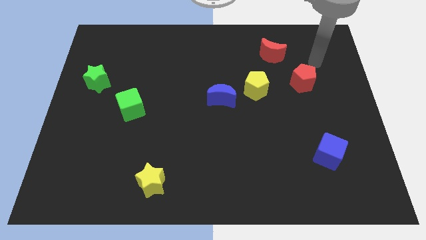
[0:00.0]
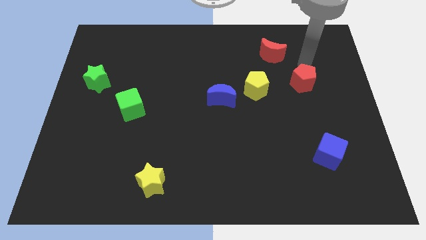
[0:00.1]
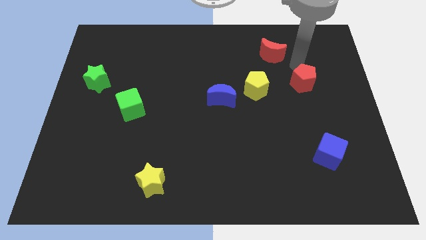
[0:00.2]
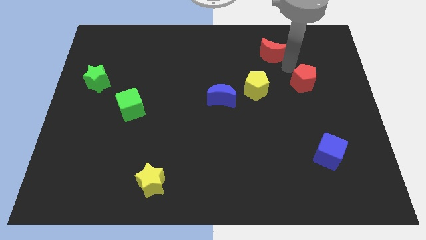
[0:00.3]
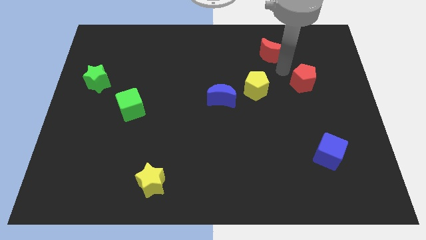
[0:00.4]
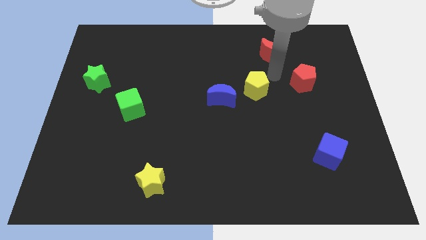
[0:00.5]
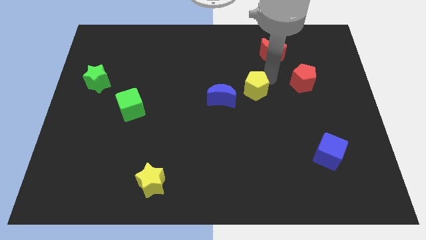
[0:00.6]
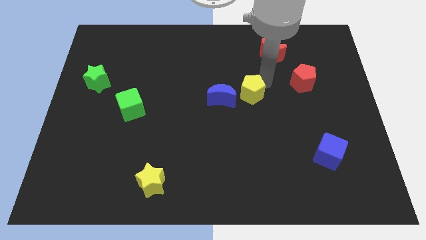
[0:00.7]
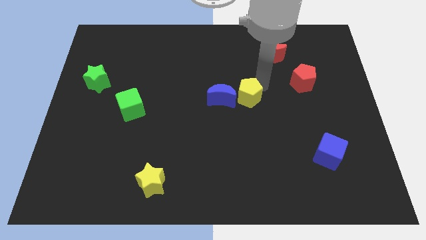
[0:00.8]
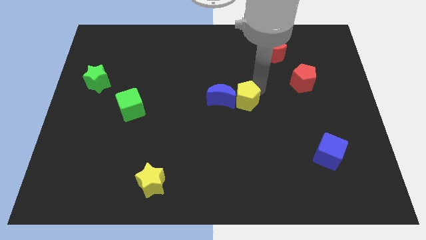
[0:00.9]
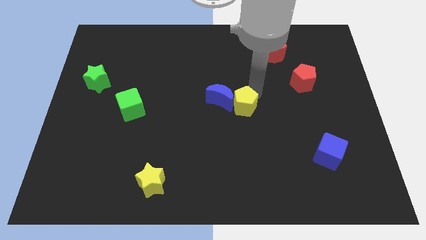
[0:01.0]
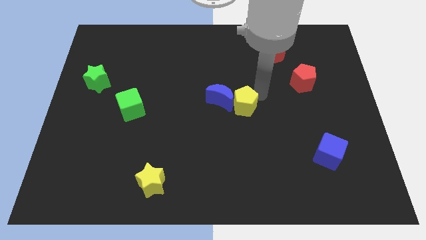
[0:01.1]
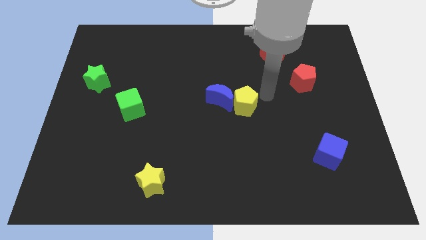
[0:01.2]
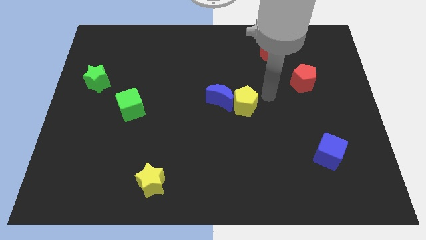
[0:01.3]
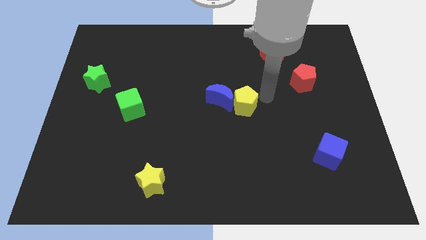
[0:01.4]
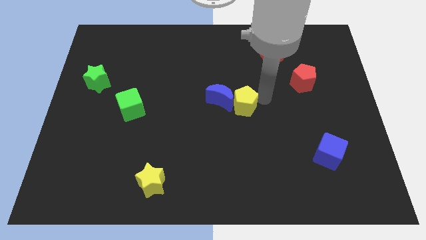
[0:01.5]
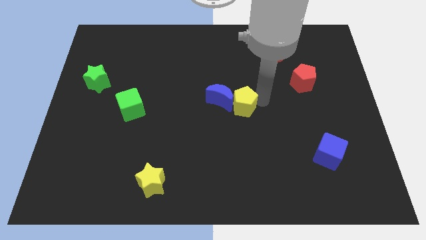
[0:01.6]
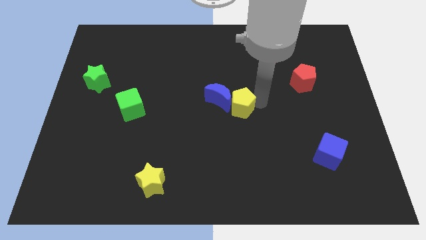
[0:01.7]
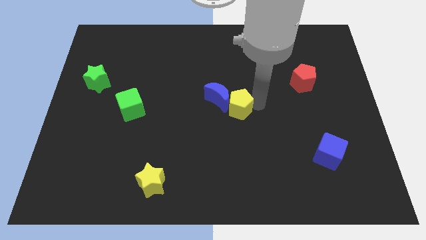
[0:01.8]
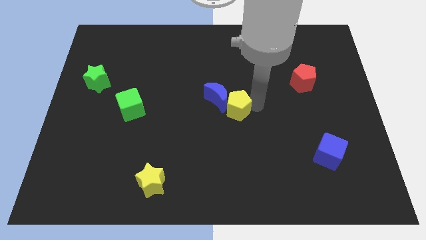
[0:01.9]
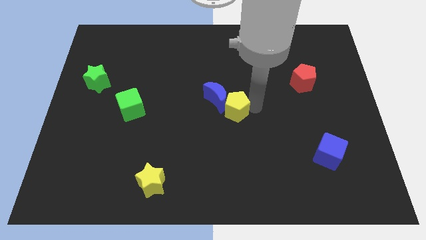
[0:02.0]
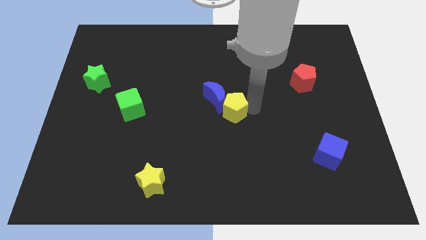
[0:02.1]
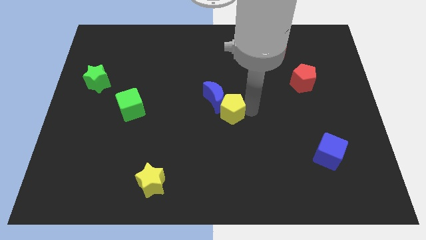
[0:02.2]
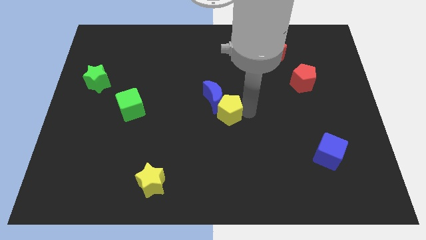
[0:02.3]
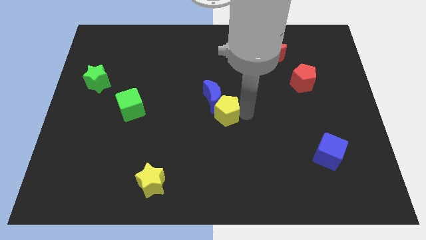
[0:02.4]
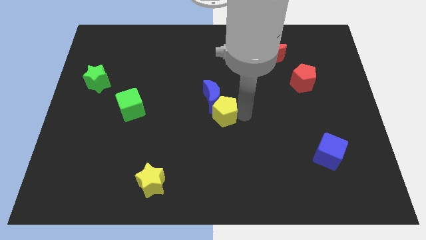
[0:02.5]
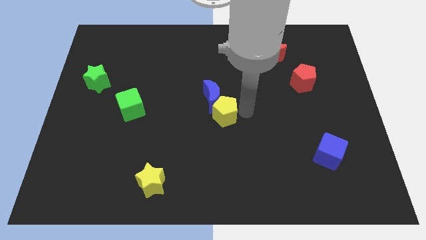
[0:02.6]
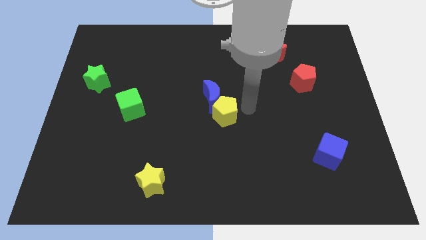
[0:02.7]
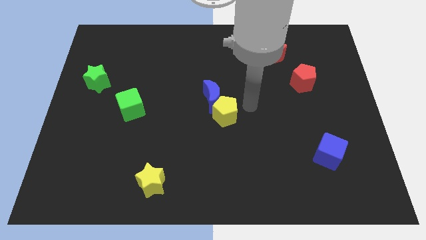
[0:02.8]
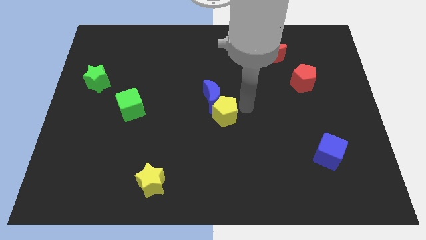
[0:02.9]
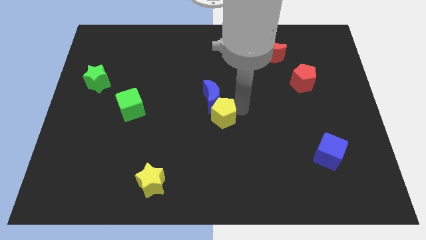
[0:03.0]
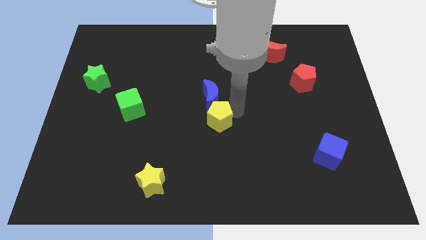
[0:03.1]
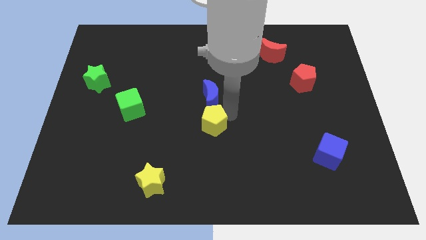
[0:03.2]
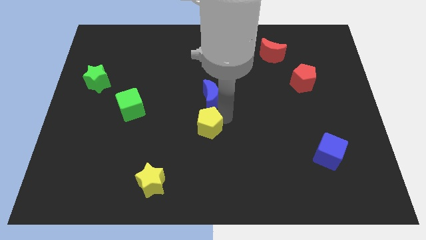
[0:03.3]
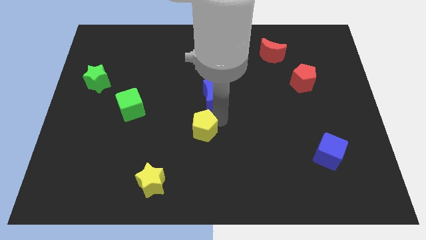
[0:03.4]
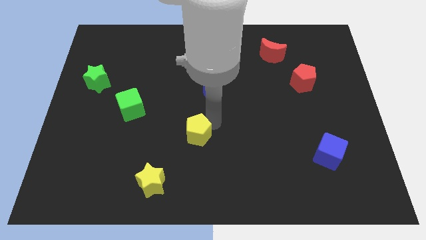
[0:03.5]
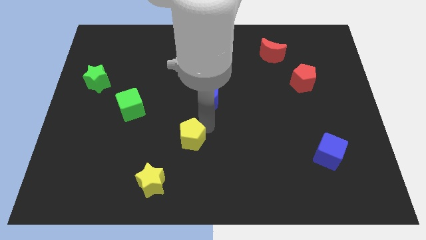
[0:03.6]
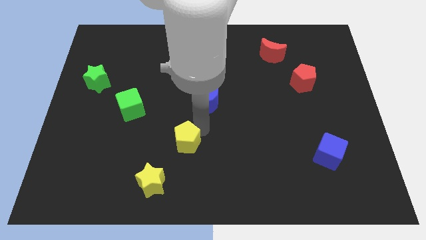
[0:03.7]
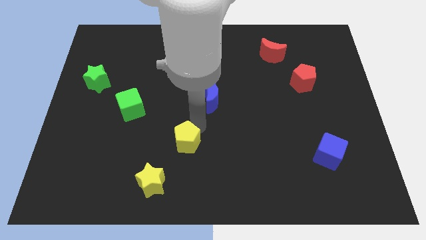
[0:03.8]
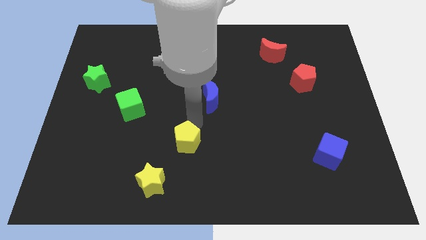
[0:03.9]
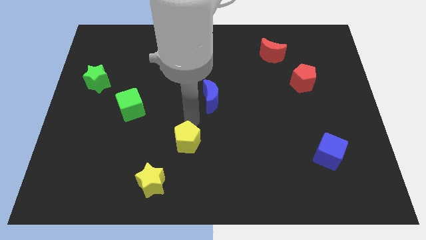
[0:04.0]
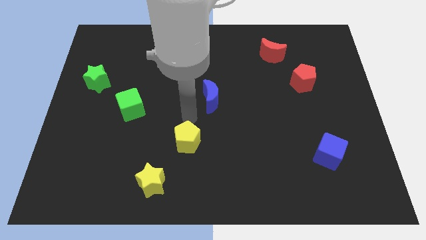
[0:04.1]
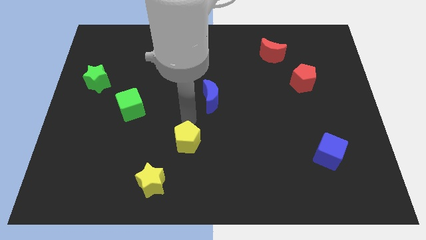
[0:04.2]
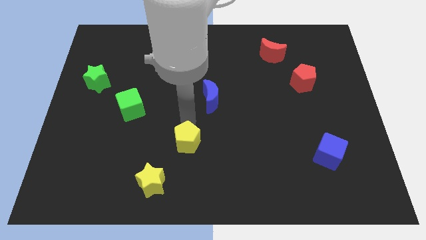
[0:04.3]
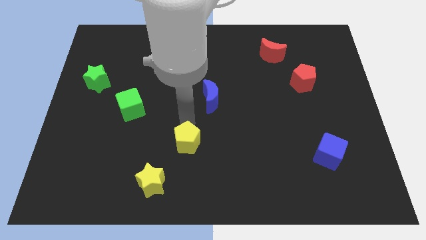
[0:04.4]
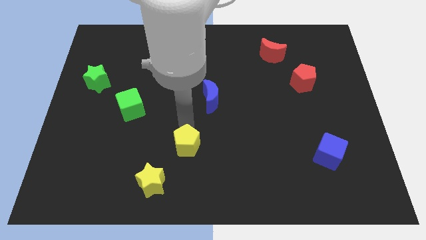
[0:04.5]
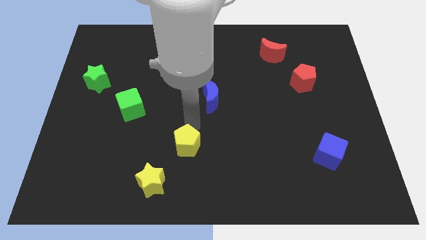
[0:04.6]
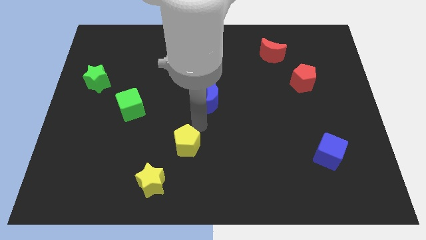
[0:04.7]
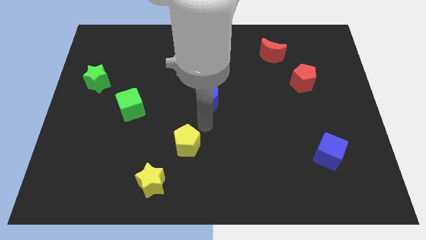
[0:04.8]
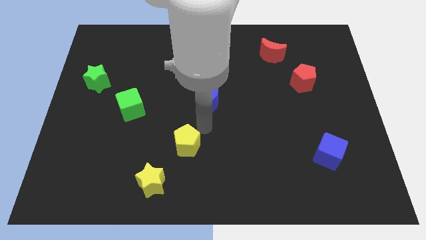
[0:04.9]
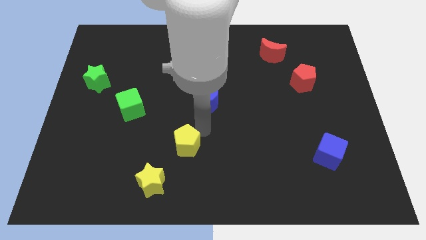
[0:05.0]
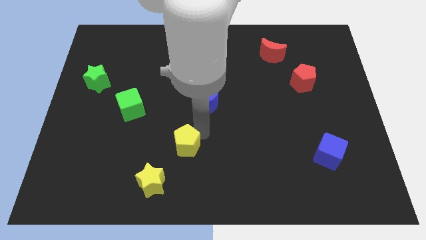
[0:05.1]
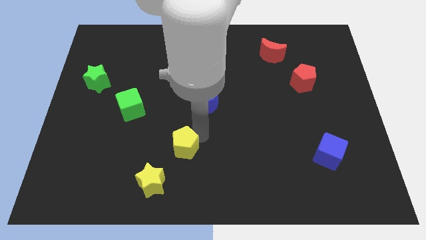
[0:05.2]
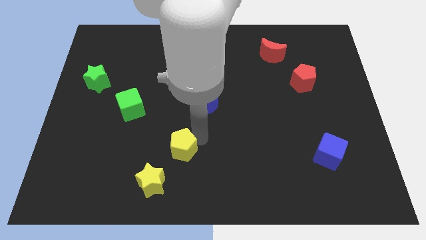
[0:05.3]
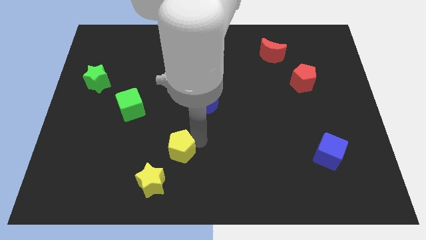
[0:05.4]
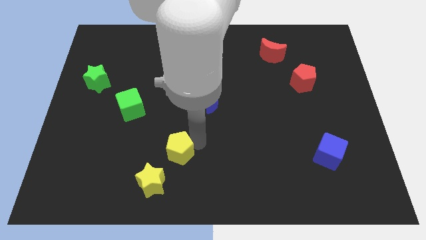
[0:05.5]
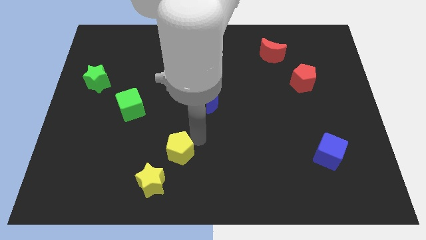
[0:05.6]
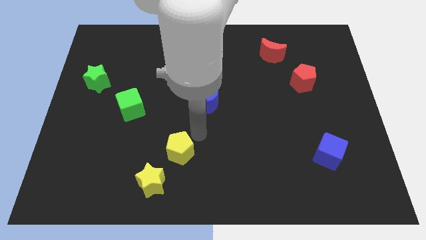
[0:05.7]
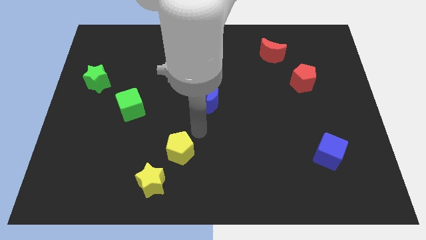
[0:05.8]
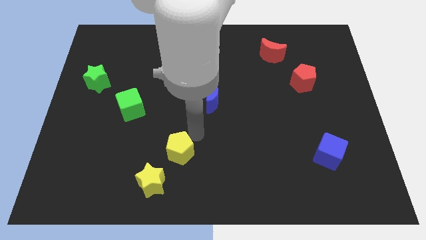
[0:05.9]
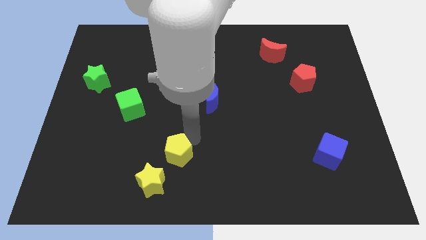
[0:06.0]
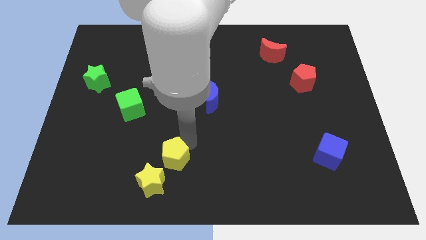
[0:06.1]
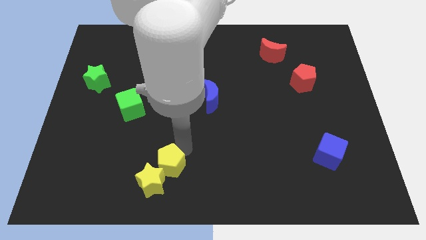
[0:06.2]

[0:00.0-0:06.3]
move the yellow pentagon close to the yellow star

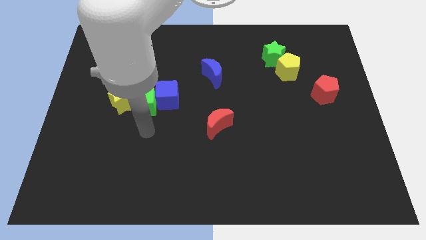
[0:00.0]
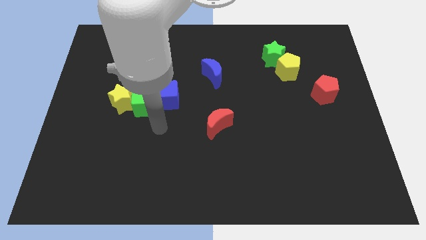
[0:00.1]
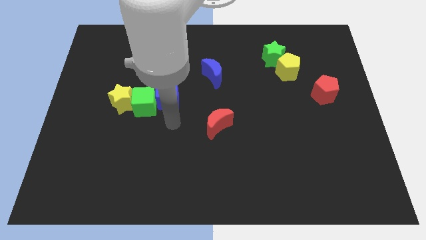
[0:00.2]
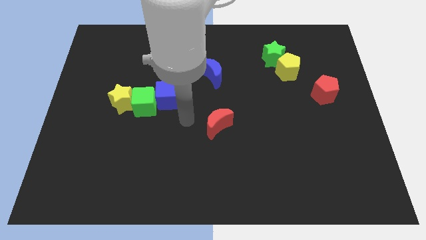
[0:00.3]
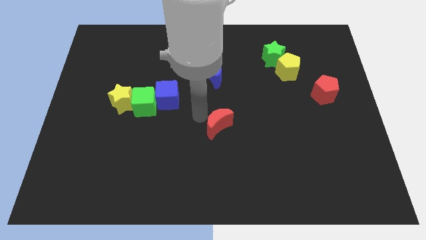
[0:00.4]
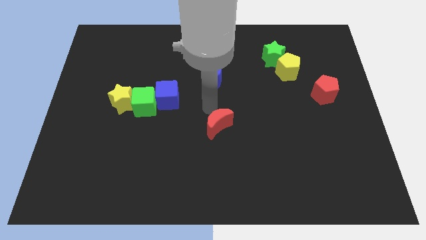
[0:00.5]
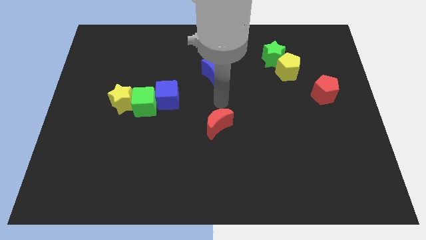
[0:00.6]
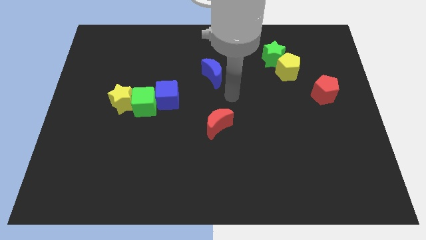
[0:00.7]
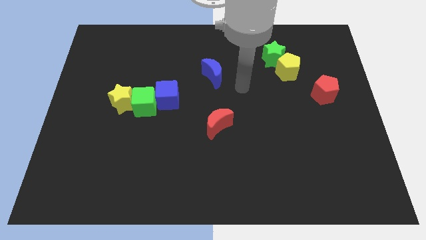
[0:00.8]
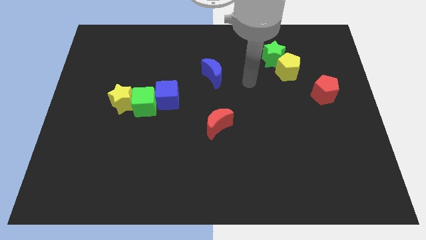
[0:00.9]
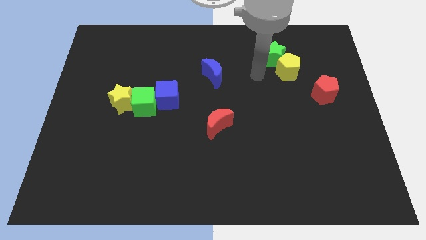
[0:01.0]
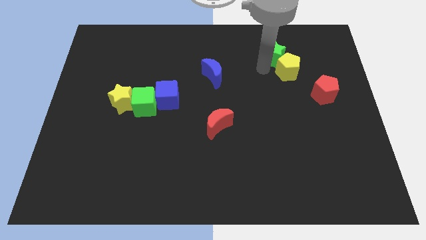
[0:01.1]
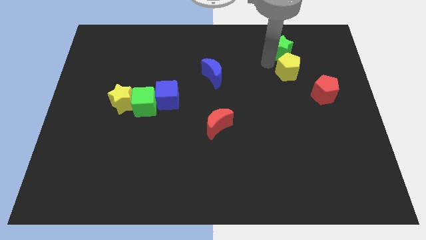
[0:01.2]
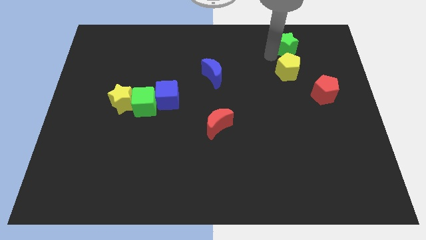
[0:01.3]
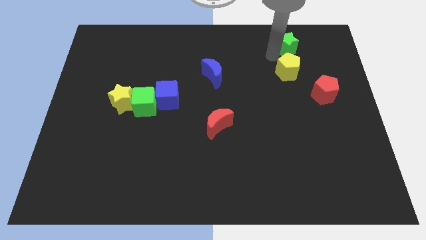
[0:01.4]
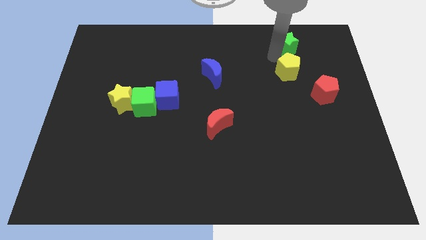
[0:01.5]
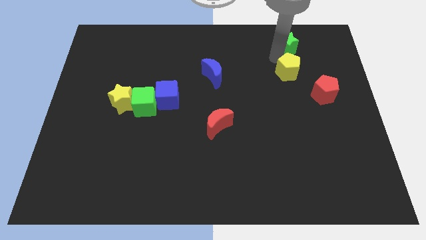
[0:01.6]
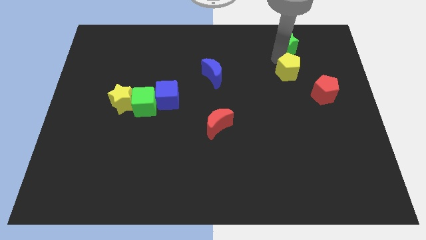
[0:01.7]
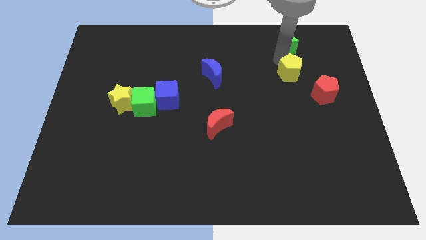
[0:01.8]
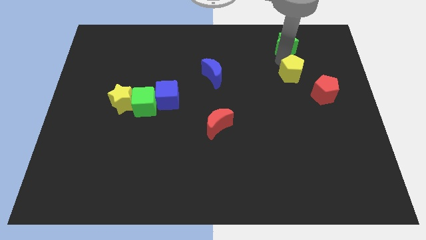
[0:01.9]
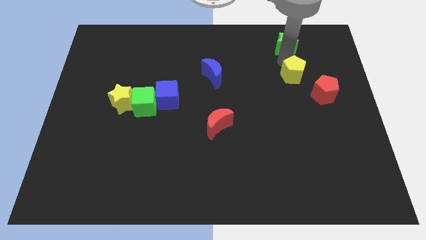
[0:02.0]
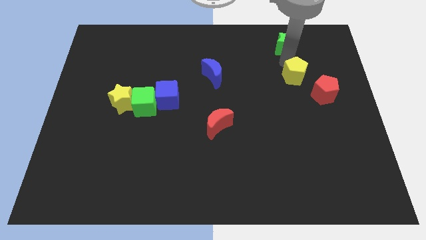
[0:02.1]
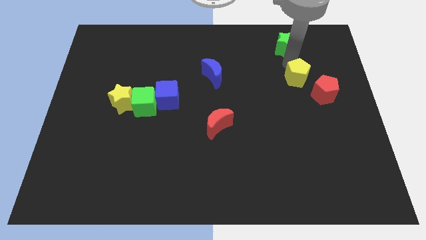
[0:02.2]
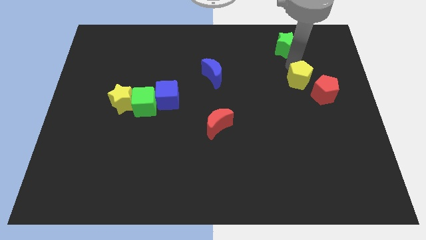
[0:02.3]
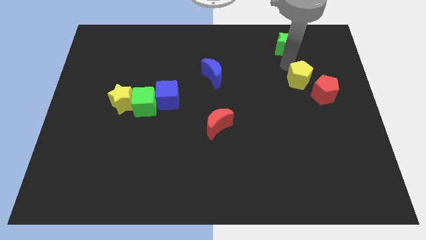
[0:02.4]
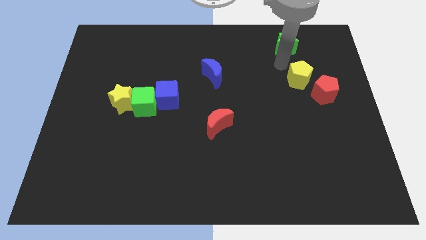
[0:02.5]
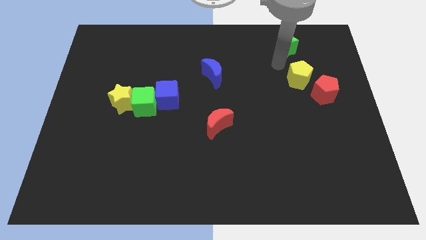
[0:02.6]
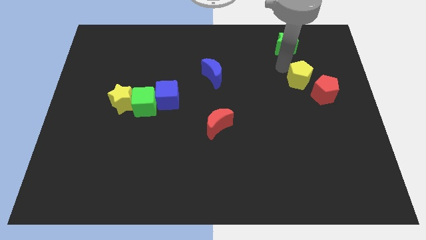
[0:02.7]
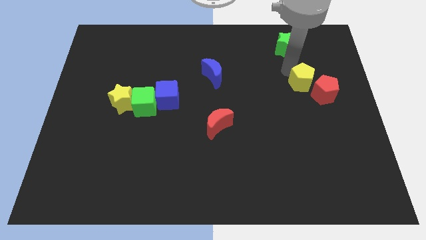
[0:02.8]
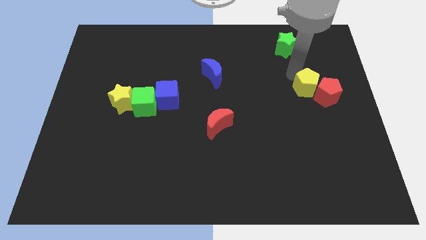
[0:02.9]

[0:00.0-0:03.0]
push the yellow pentagon close to the red pentagon
